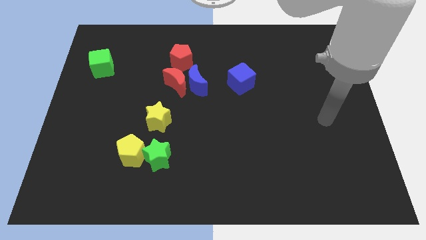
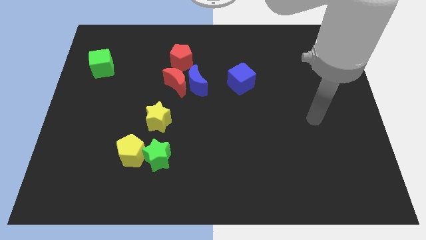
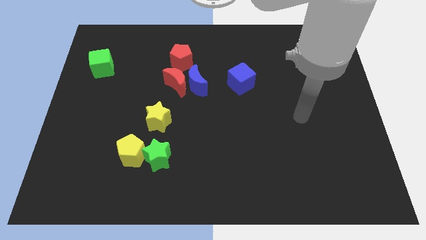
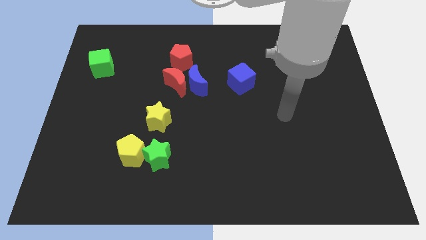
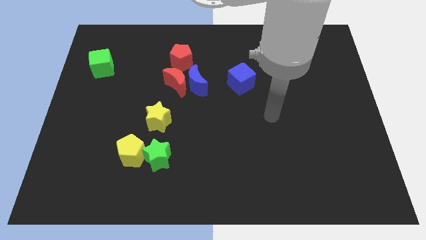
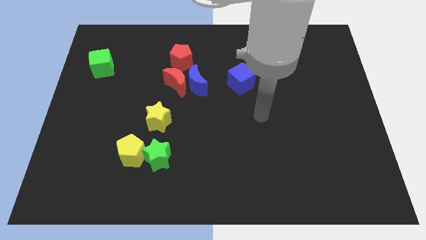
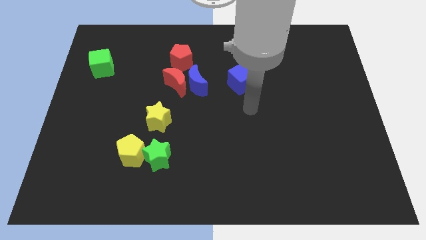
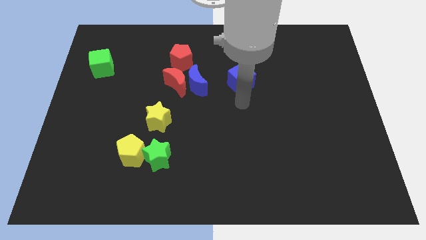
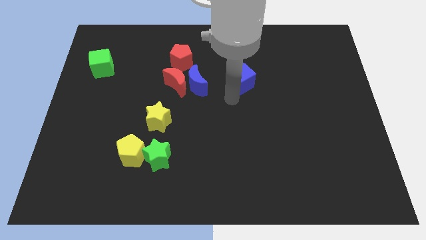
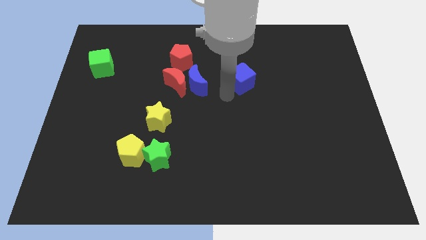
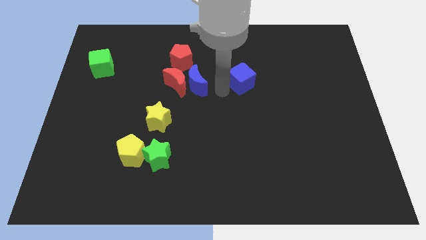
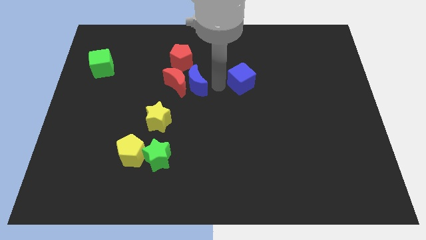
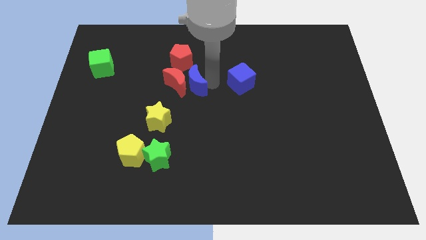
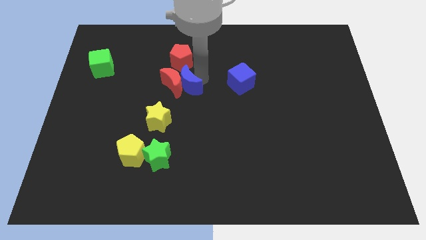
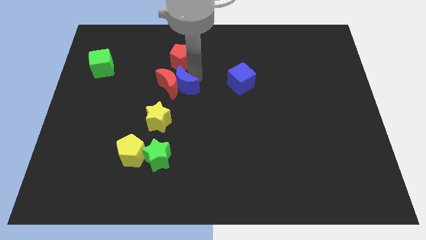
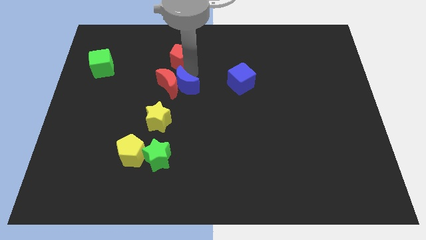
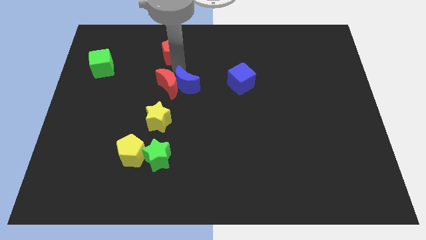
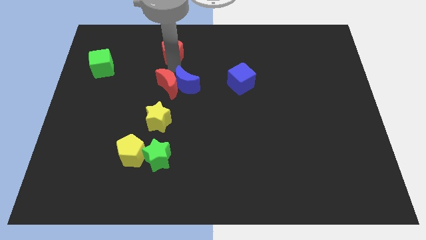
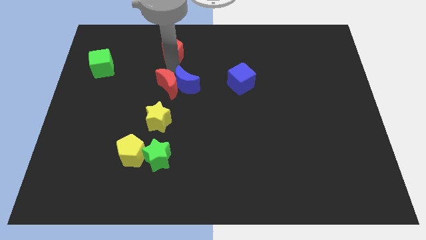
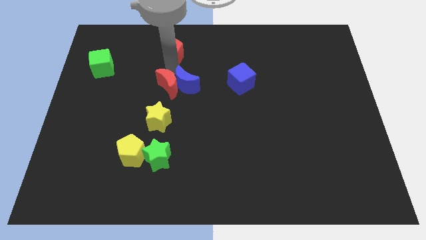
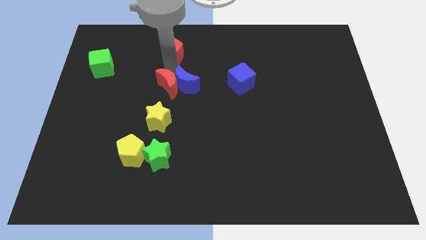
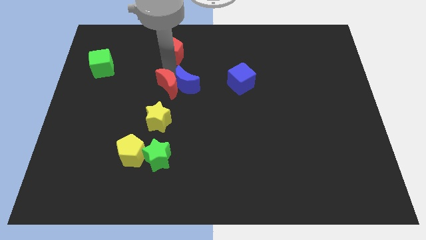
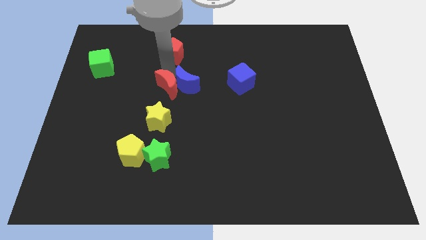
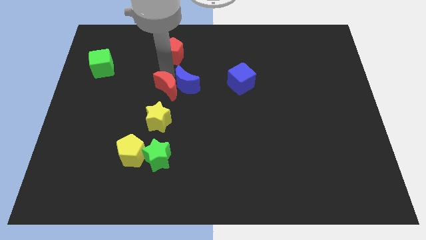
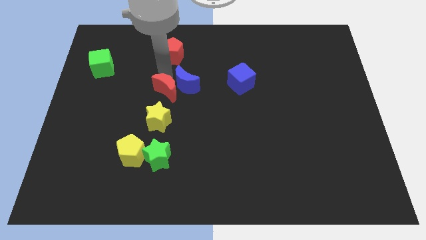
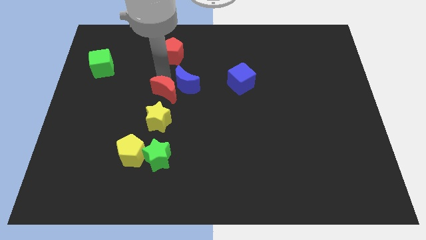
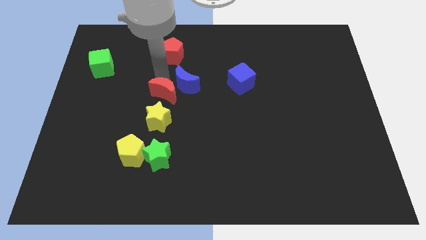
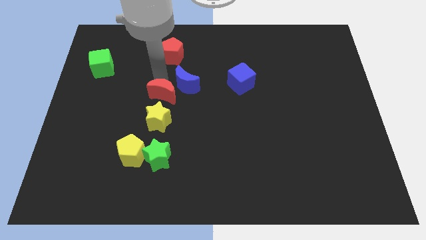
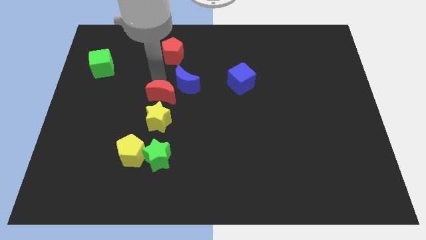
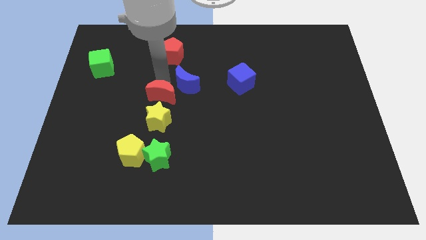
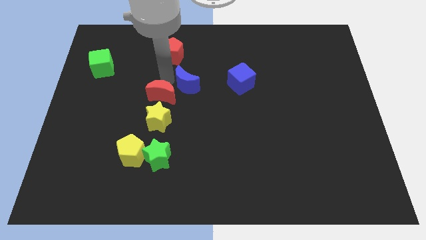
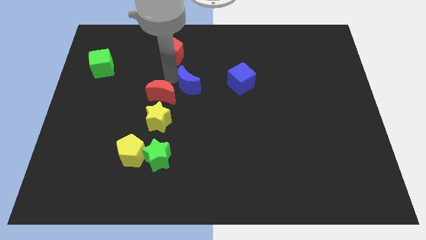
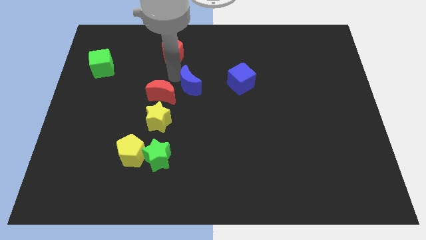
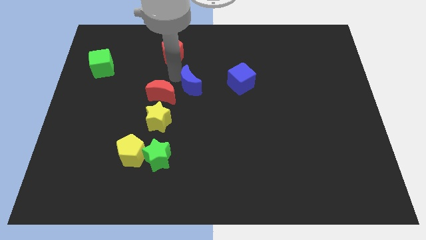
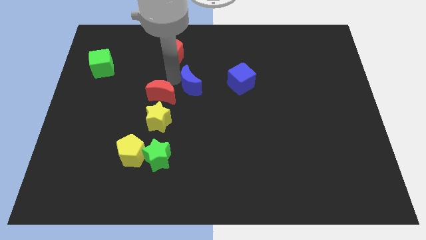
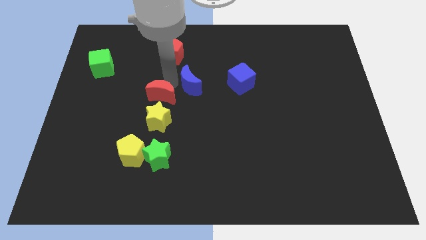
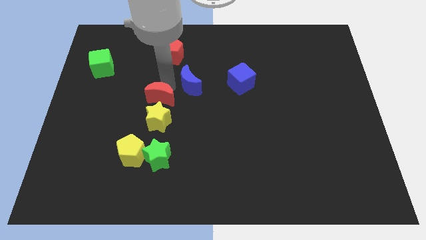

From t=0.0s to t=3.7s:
move the red moon away from the blue moon and red pentagon

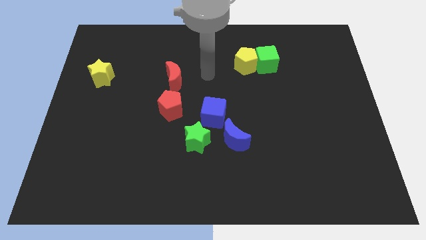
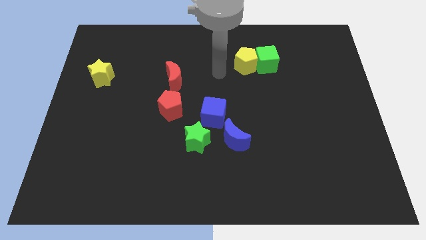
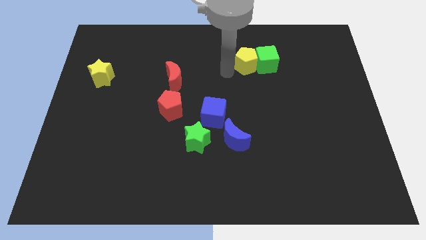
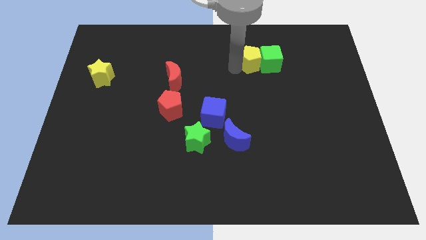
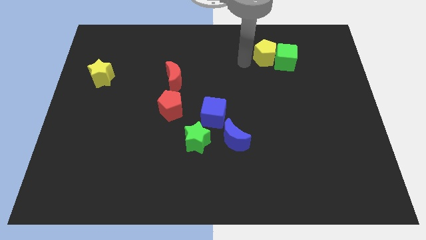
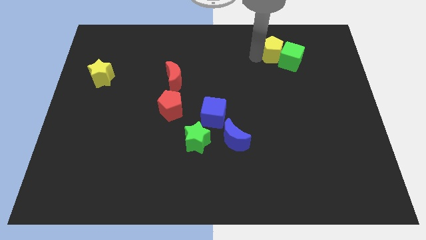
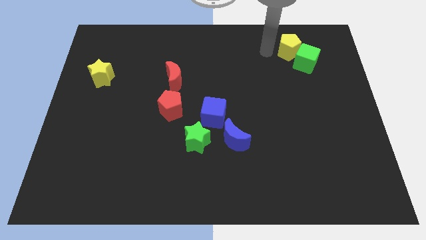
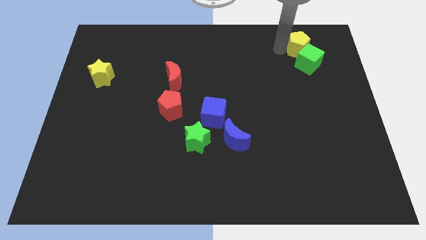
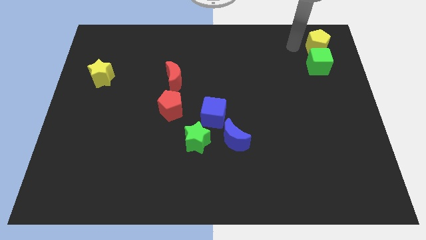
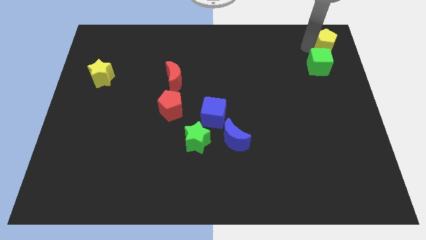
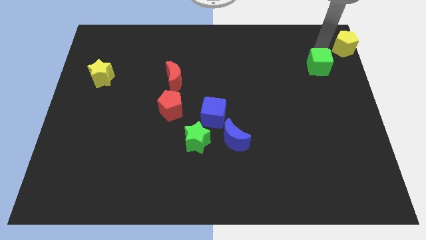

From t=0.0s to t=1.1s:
separate the green cube from the yellow pentagon

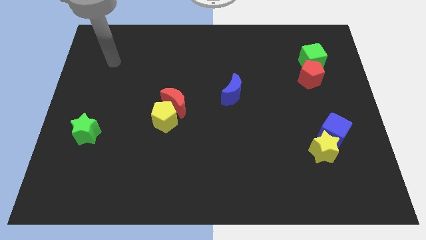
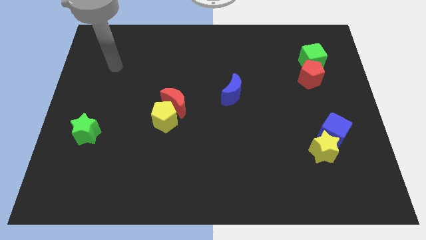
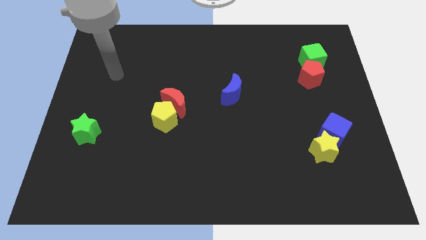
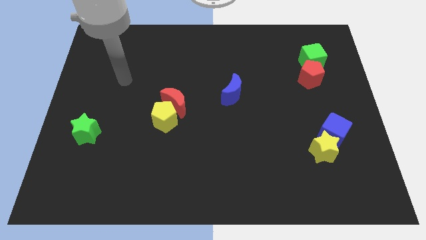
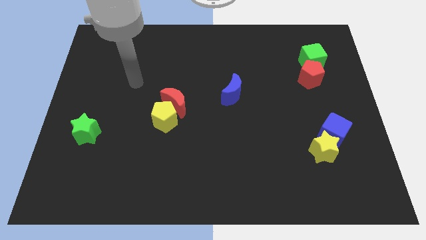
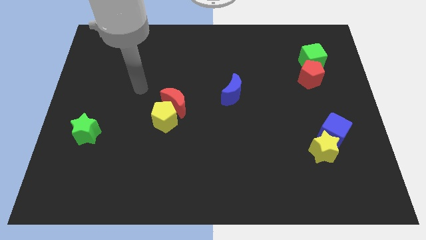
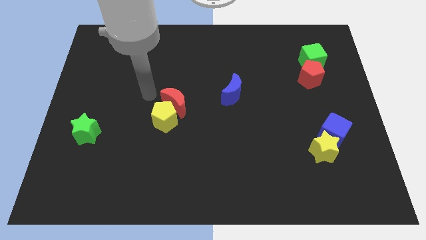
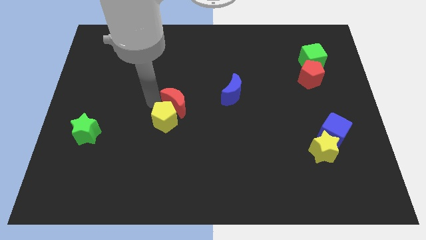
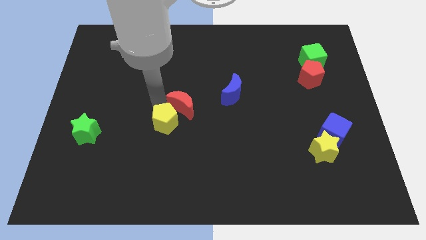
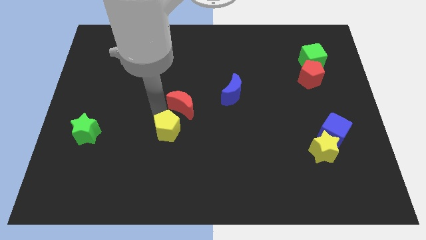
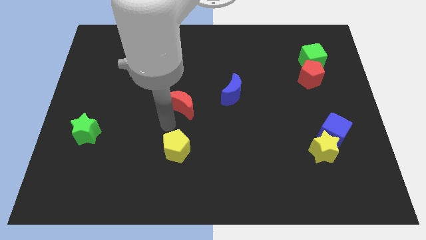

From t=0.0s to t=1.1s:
move the red moon away from the yellow pentagon

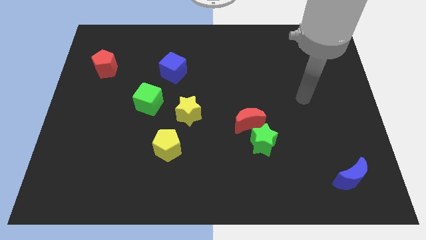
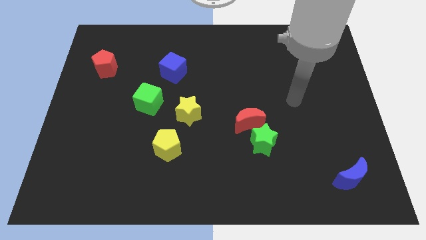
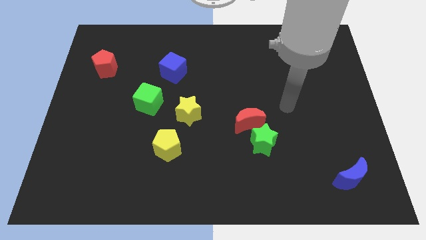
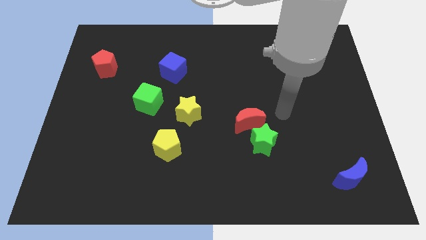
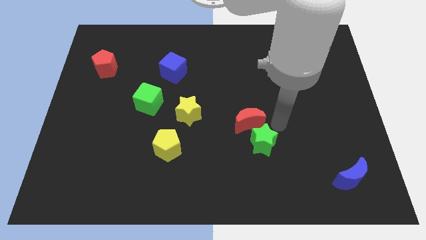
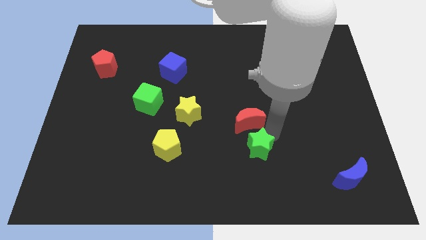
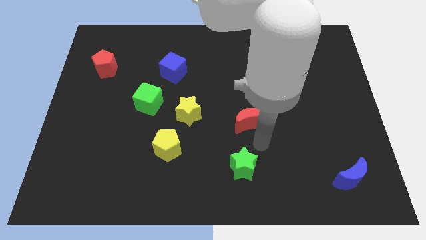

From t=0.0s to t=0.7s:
pull the red moon apart from the green star

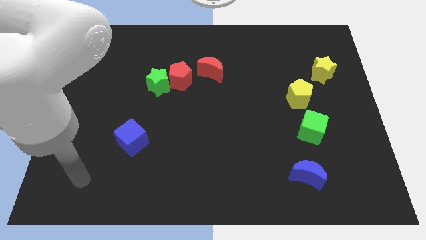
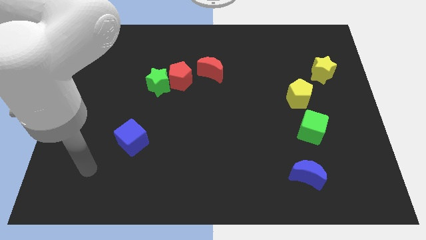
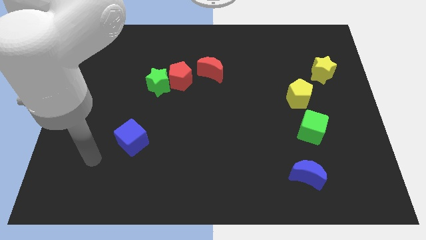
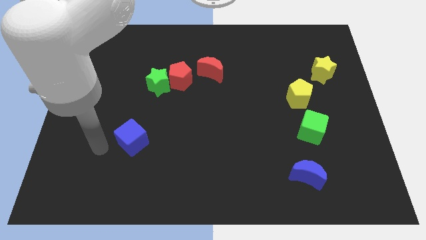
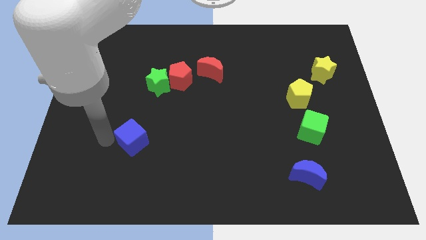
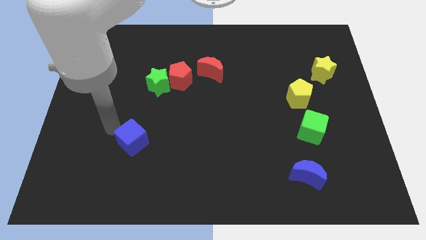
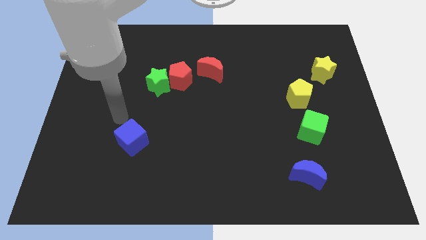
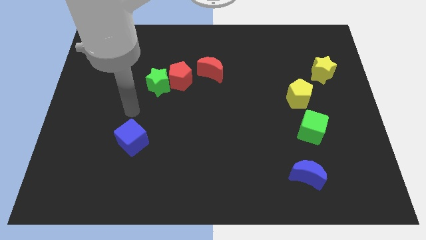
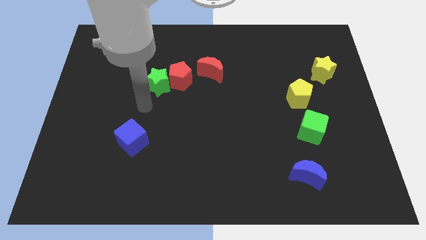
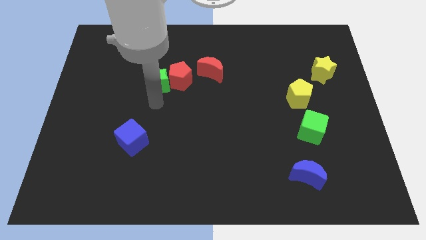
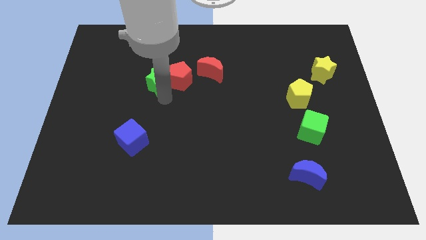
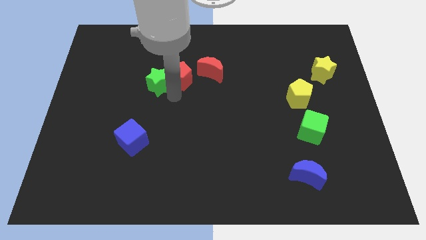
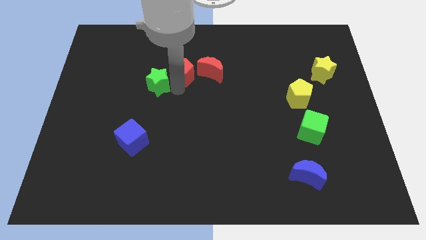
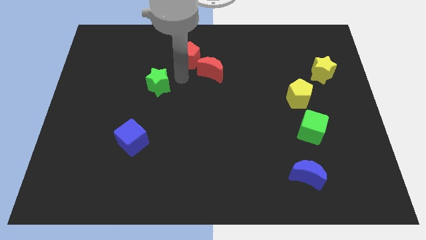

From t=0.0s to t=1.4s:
pull the green star apart from the red pentagon

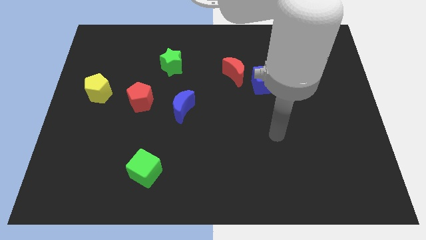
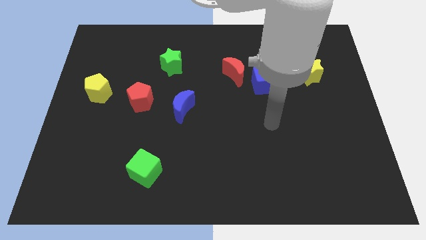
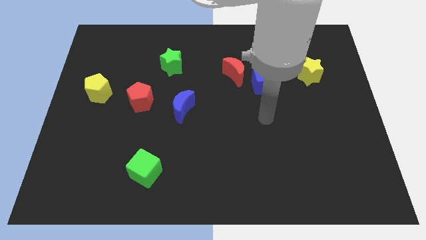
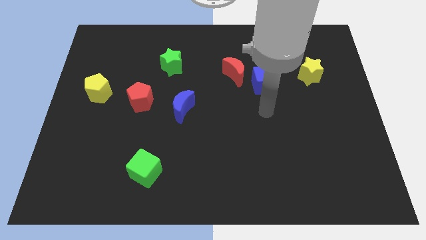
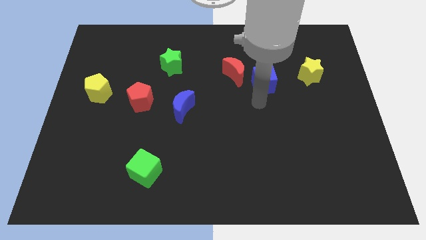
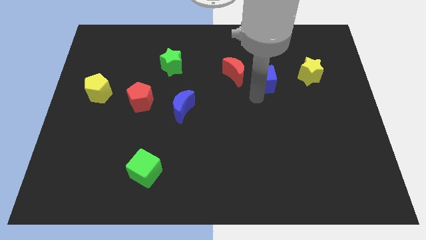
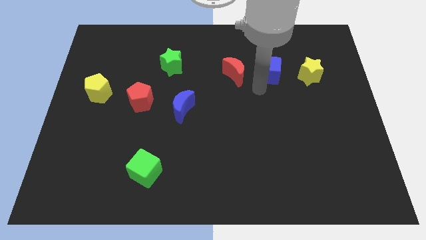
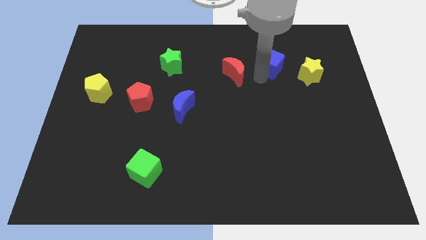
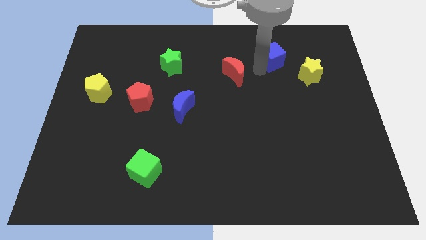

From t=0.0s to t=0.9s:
move the red moon away from the blue cube

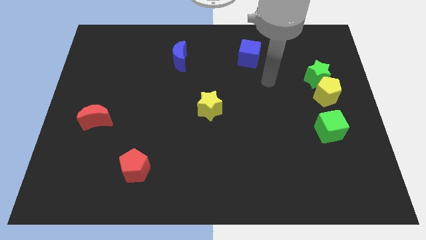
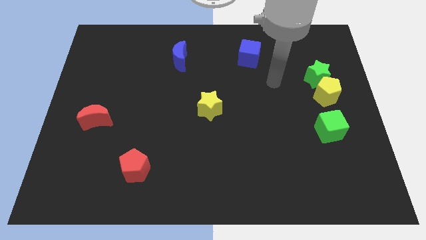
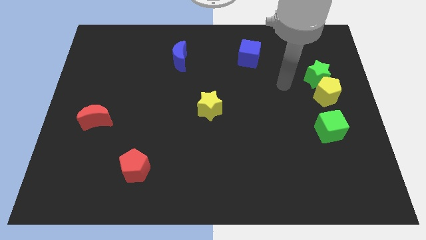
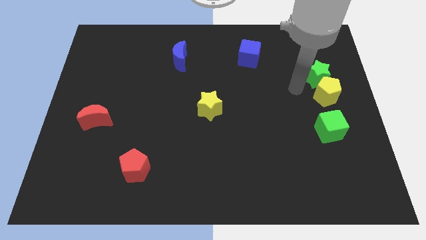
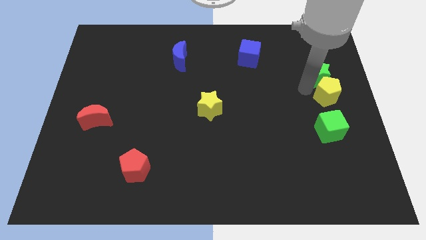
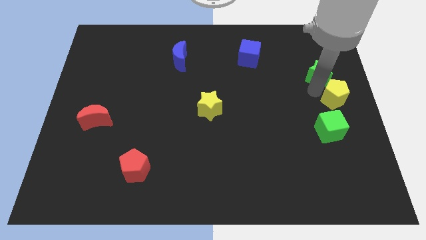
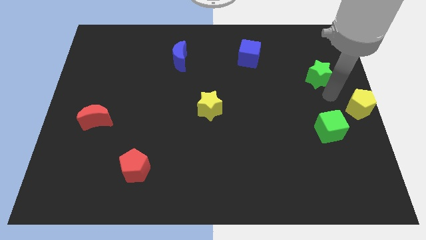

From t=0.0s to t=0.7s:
move the green star away from the yellow pentagon
